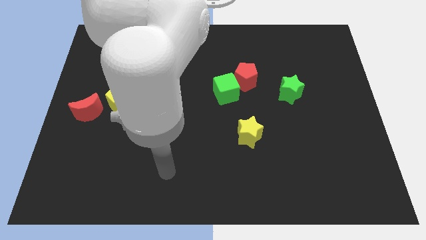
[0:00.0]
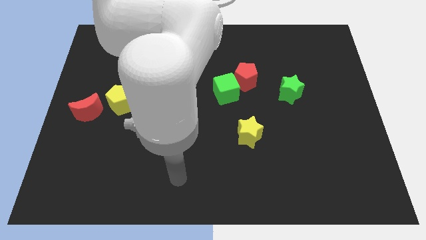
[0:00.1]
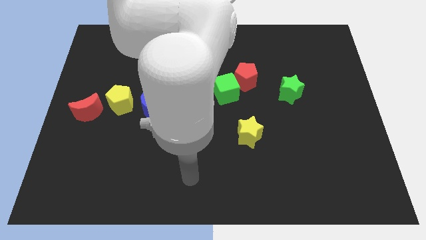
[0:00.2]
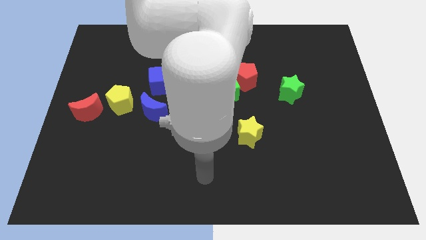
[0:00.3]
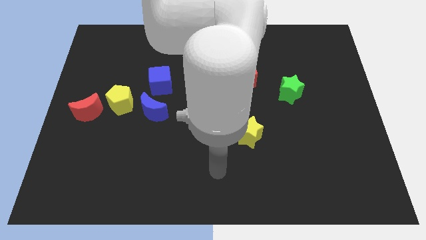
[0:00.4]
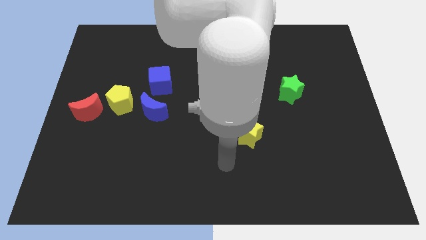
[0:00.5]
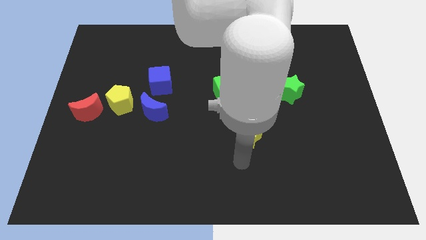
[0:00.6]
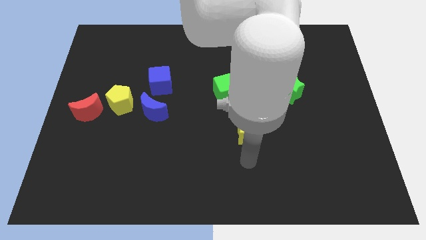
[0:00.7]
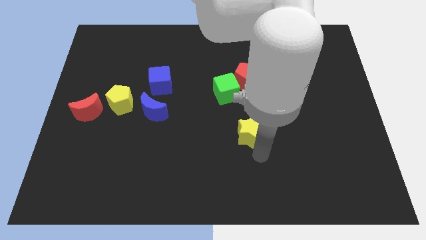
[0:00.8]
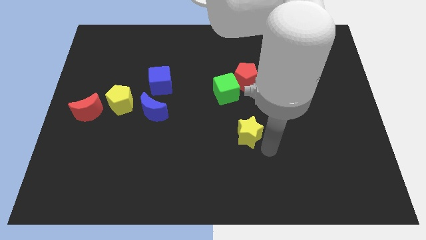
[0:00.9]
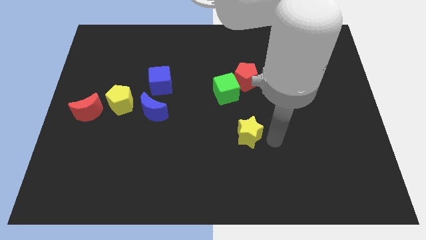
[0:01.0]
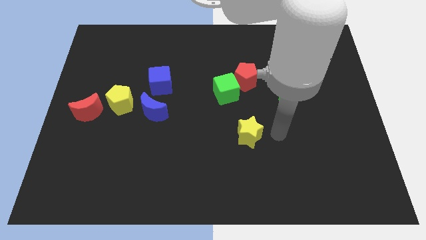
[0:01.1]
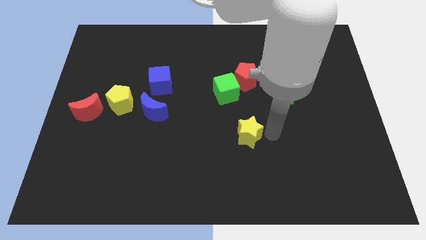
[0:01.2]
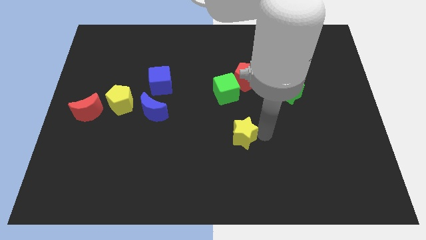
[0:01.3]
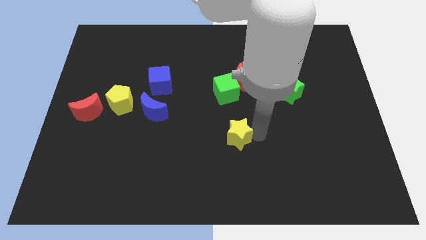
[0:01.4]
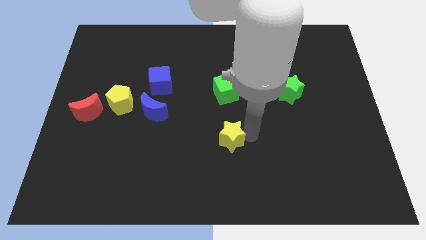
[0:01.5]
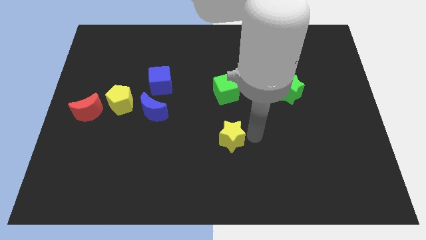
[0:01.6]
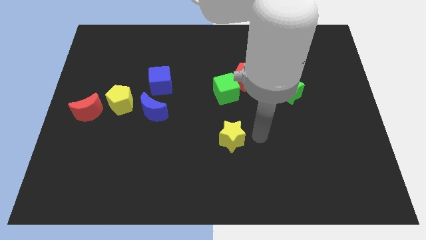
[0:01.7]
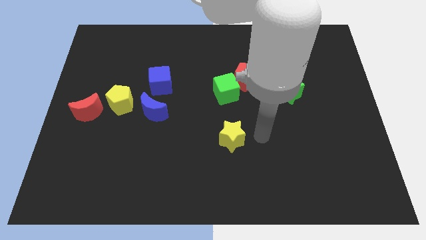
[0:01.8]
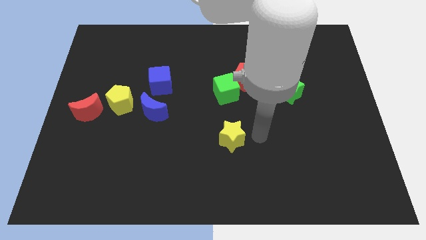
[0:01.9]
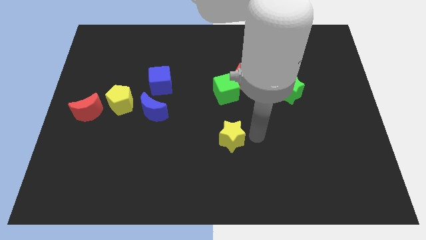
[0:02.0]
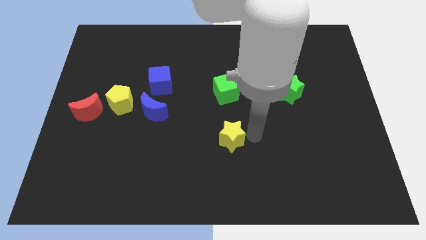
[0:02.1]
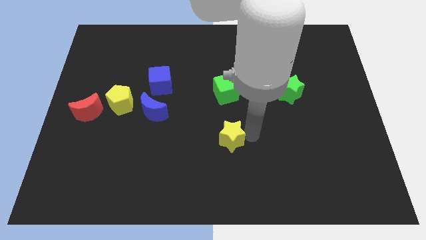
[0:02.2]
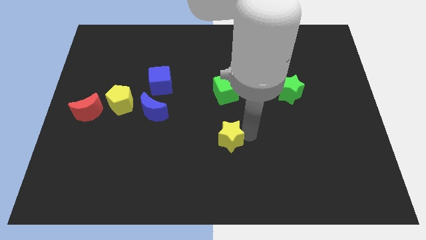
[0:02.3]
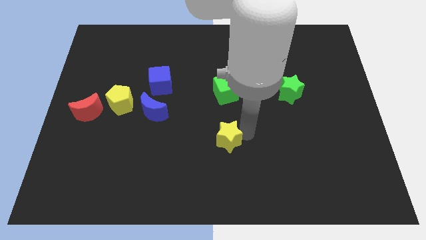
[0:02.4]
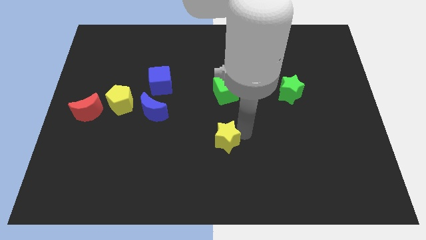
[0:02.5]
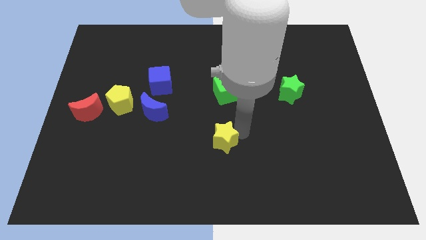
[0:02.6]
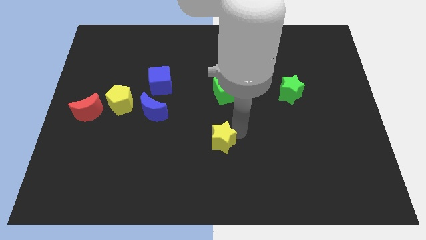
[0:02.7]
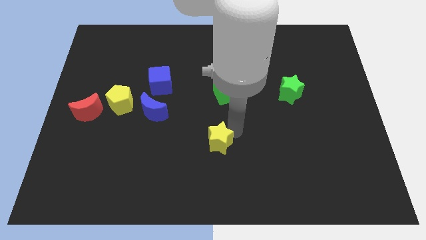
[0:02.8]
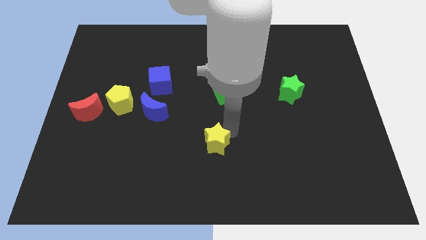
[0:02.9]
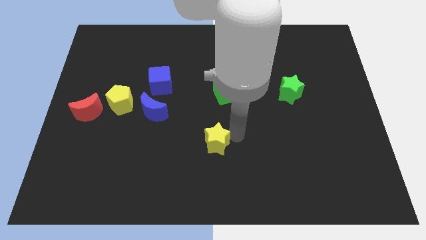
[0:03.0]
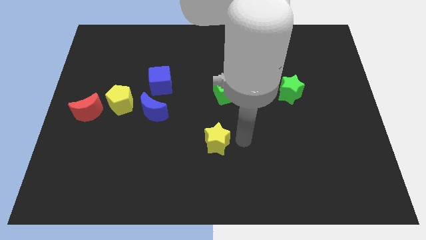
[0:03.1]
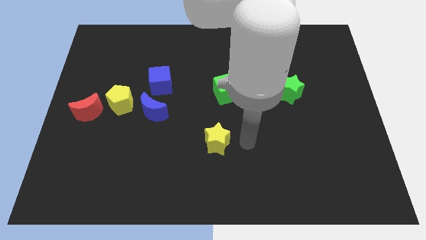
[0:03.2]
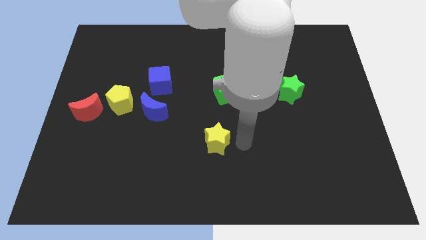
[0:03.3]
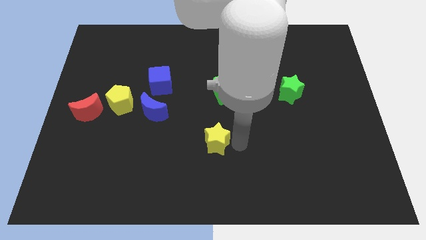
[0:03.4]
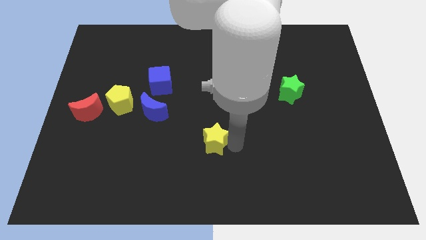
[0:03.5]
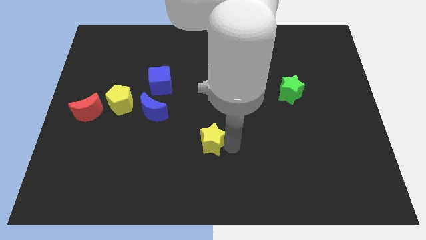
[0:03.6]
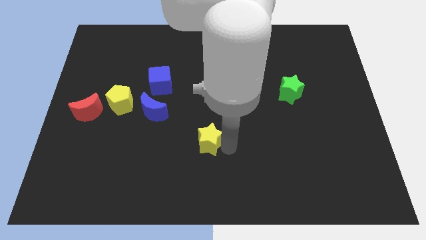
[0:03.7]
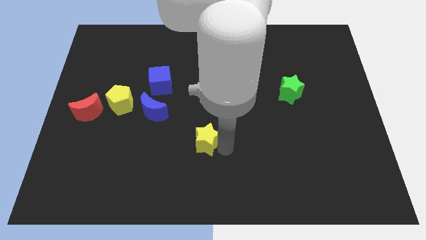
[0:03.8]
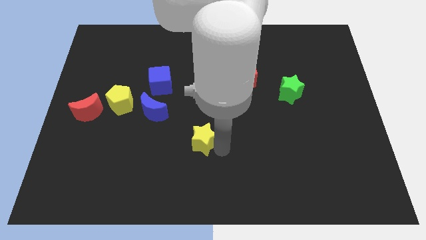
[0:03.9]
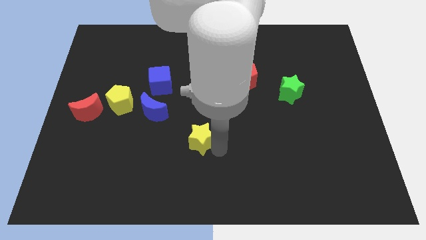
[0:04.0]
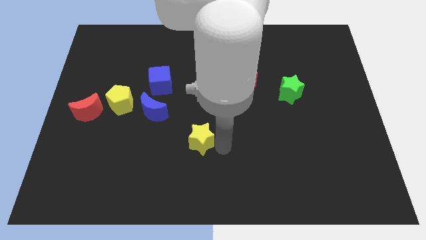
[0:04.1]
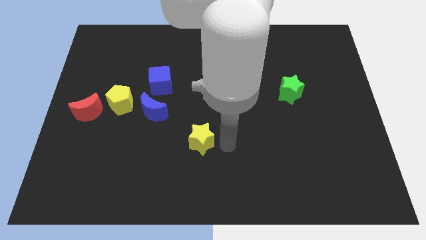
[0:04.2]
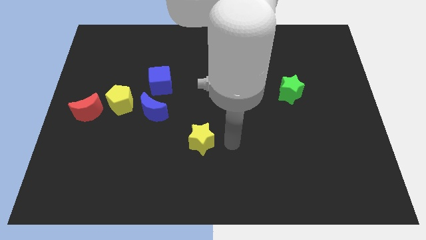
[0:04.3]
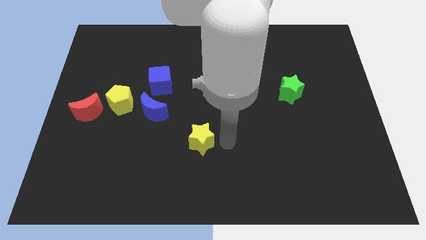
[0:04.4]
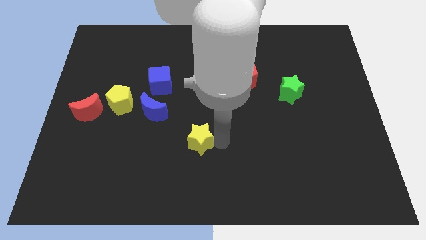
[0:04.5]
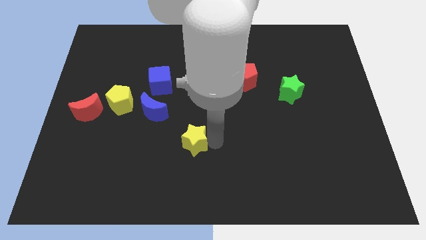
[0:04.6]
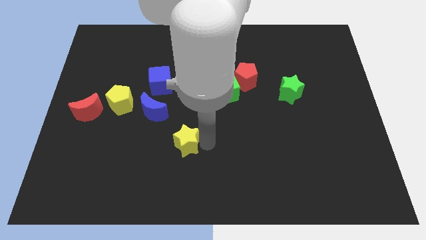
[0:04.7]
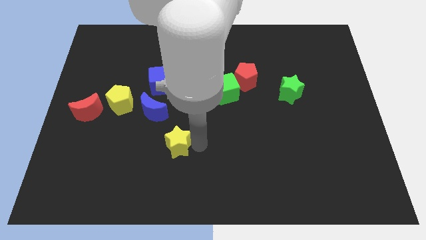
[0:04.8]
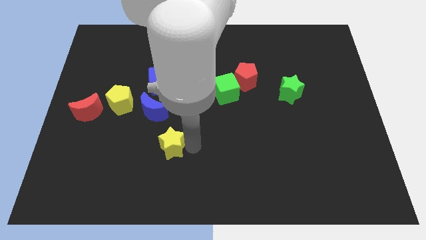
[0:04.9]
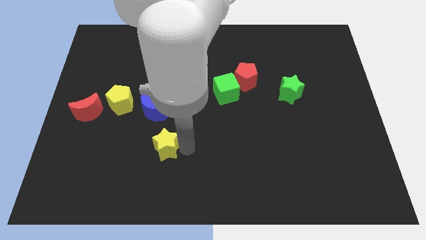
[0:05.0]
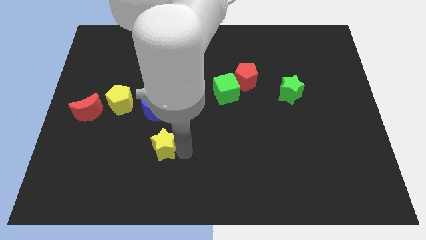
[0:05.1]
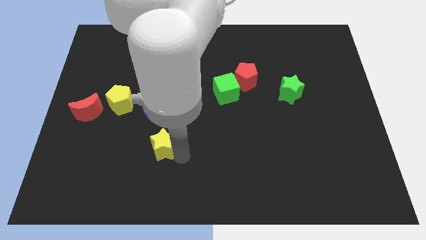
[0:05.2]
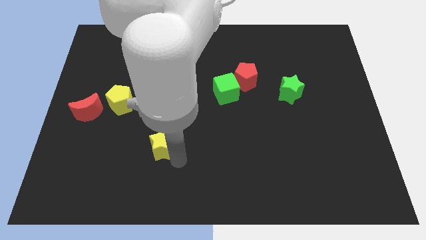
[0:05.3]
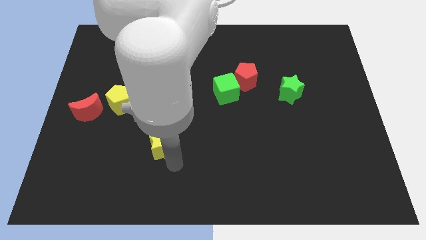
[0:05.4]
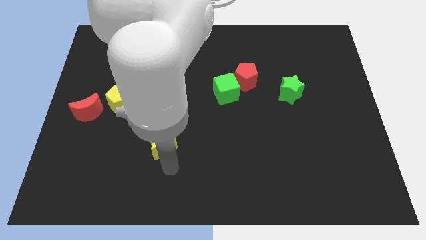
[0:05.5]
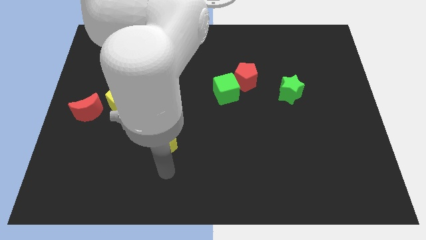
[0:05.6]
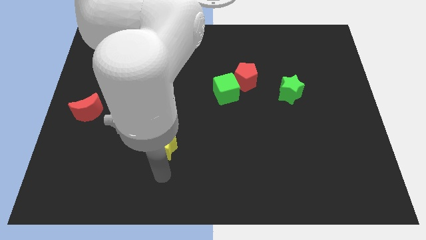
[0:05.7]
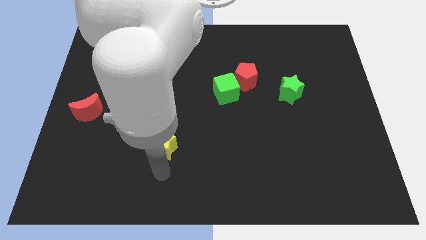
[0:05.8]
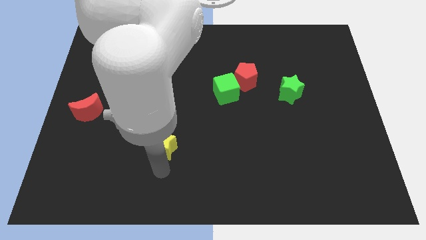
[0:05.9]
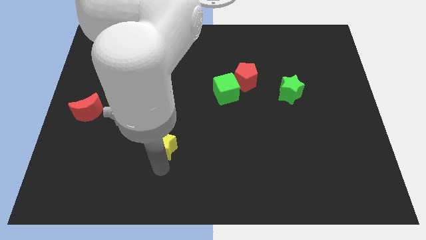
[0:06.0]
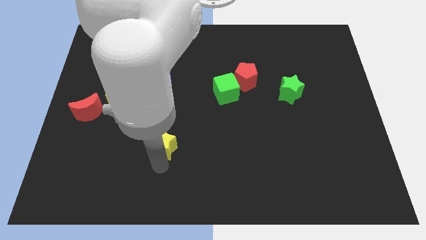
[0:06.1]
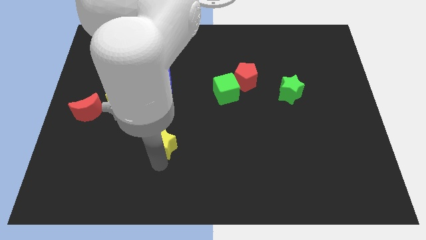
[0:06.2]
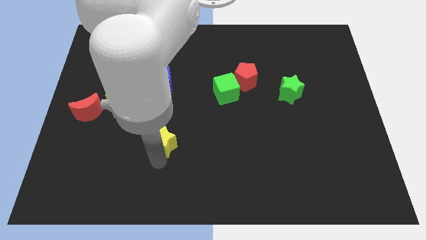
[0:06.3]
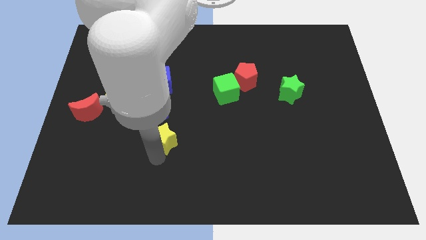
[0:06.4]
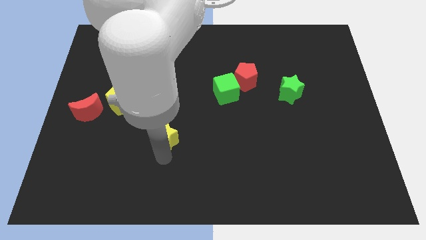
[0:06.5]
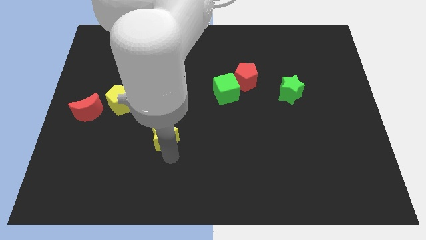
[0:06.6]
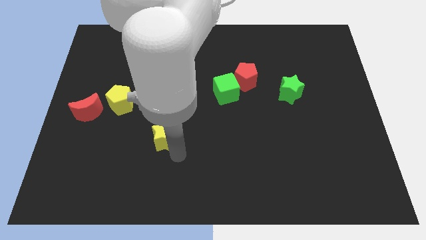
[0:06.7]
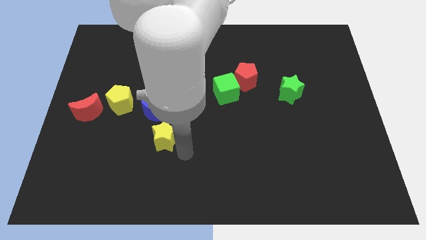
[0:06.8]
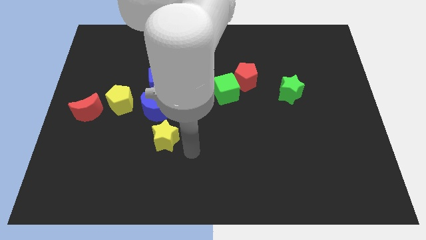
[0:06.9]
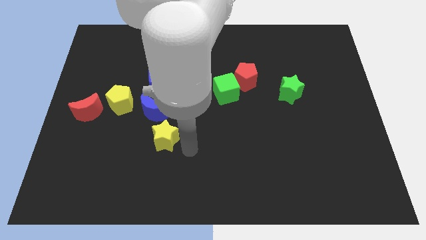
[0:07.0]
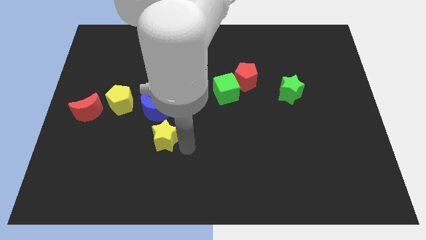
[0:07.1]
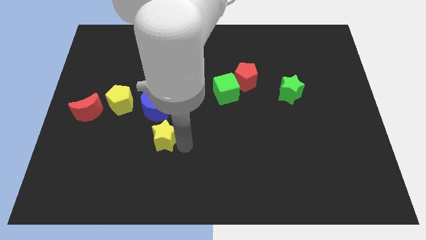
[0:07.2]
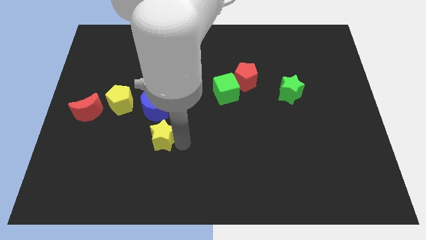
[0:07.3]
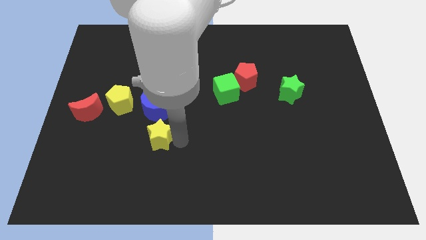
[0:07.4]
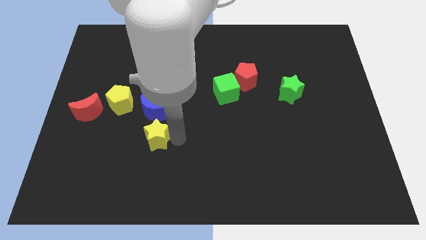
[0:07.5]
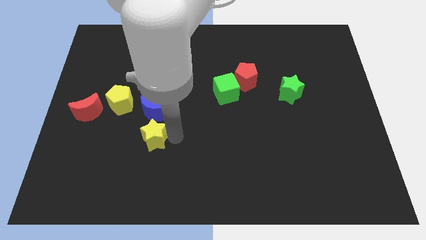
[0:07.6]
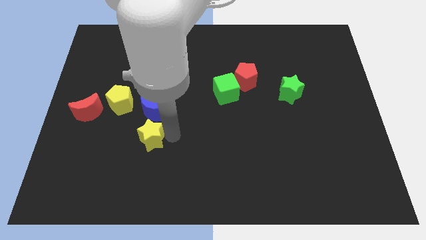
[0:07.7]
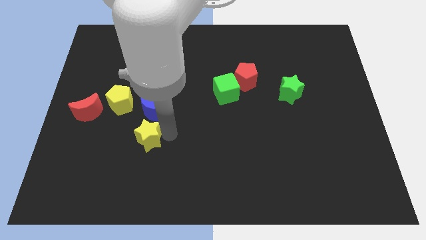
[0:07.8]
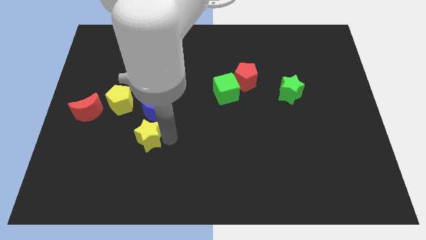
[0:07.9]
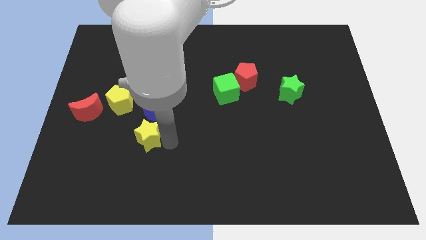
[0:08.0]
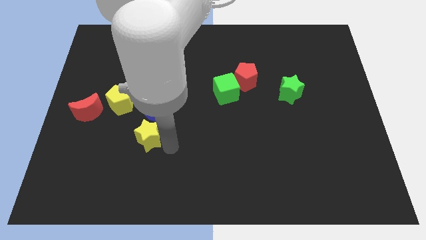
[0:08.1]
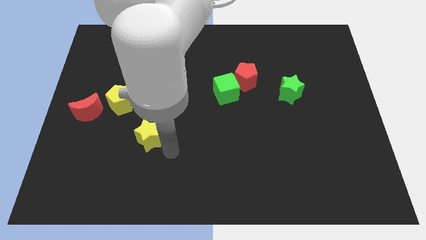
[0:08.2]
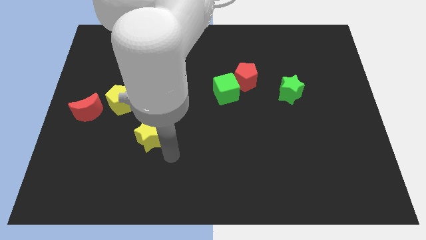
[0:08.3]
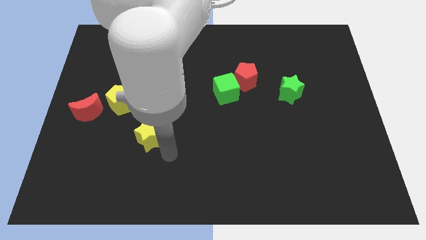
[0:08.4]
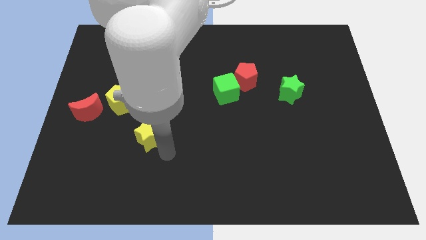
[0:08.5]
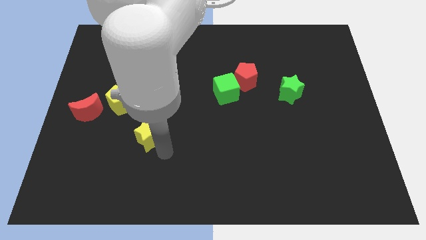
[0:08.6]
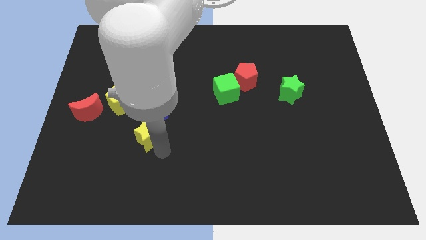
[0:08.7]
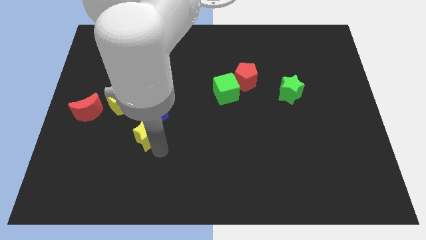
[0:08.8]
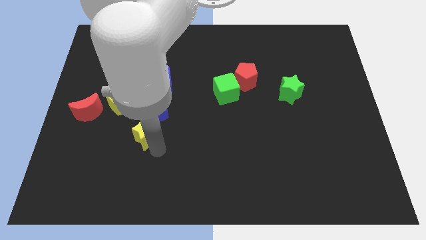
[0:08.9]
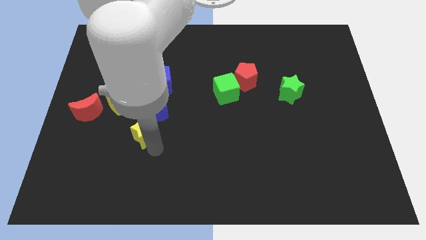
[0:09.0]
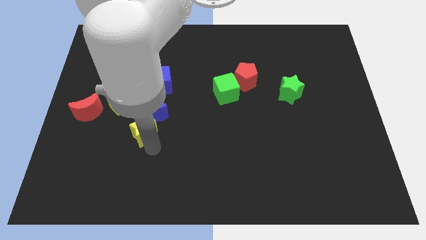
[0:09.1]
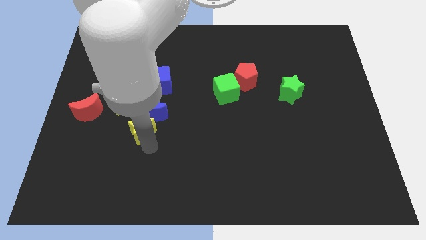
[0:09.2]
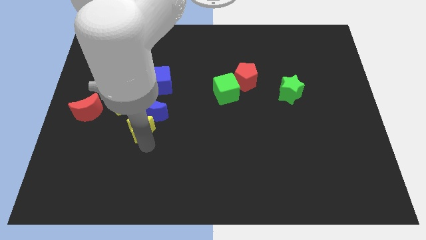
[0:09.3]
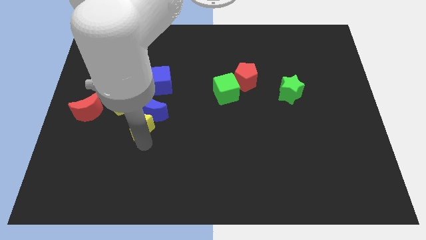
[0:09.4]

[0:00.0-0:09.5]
slide the yellow star just right of the red moon
